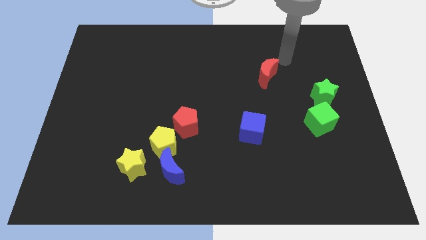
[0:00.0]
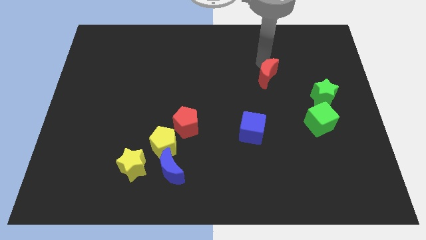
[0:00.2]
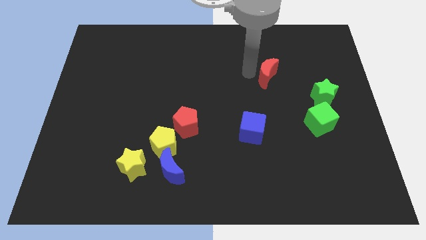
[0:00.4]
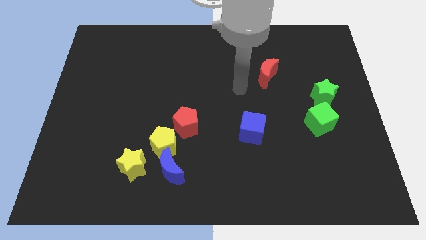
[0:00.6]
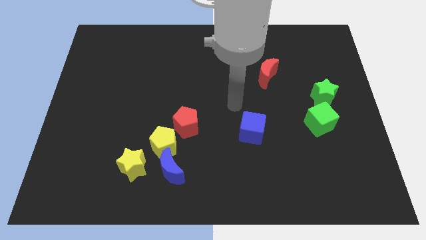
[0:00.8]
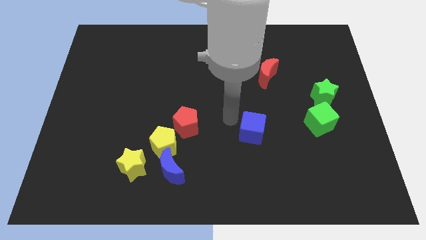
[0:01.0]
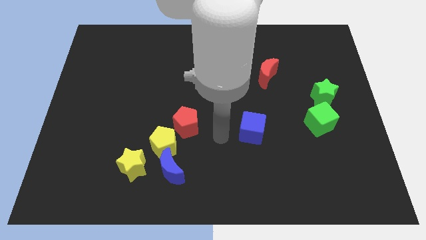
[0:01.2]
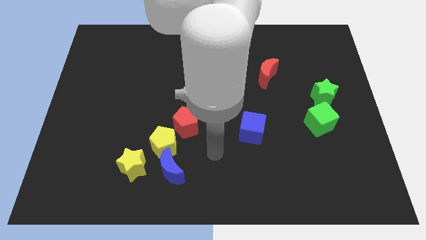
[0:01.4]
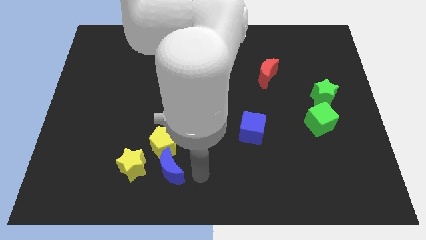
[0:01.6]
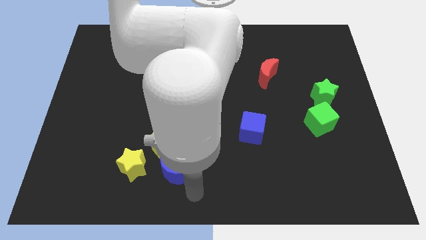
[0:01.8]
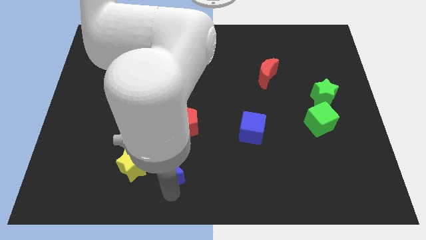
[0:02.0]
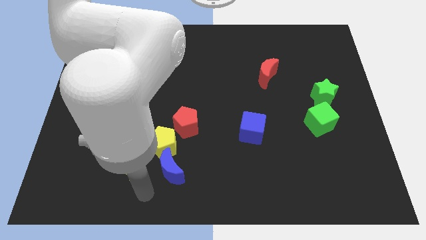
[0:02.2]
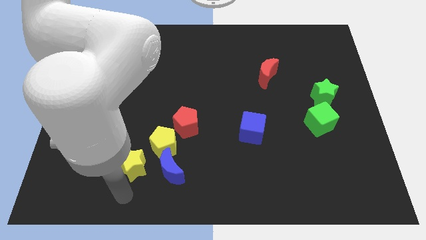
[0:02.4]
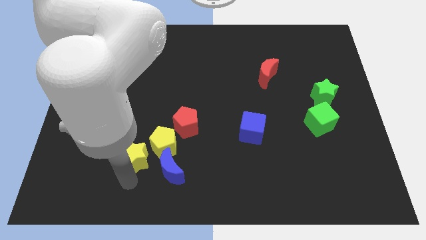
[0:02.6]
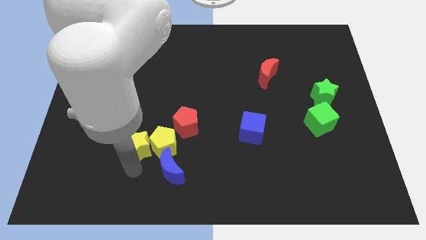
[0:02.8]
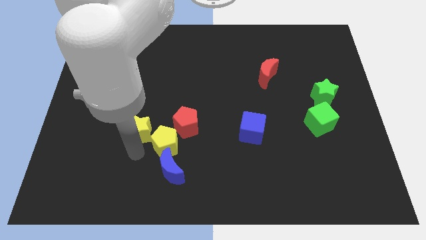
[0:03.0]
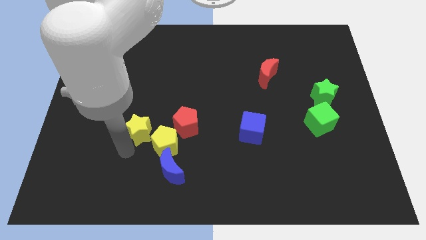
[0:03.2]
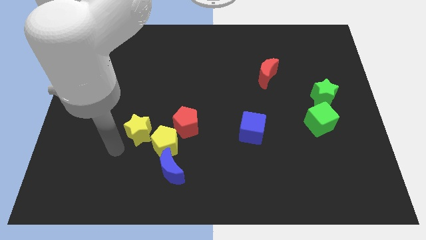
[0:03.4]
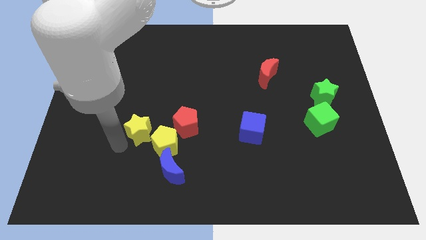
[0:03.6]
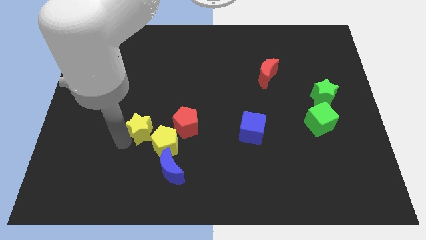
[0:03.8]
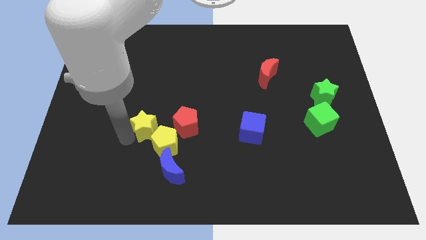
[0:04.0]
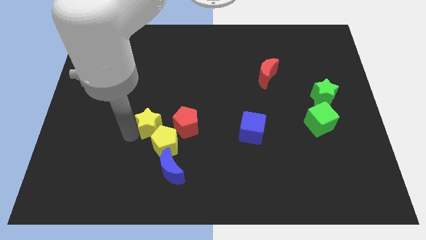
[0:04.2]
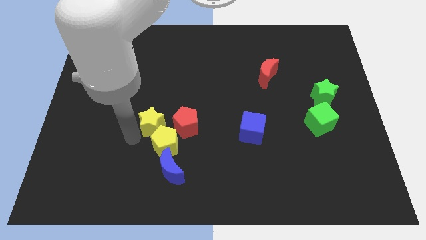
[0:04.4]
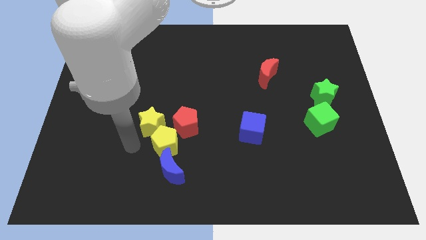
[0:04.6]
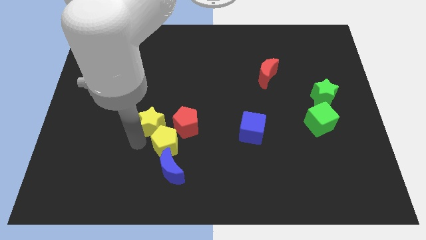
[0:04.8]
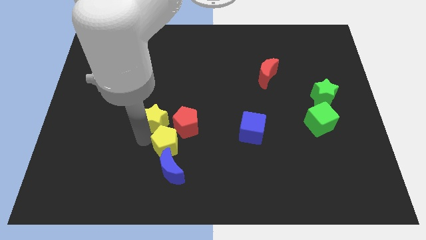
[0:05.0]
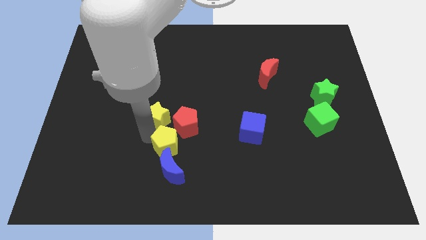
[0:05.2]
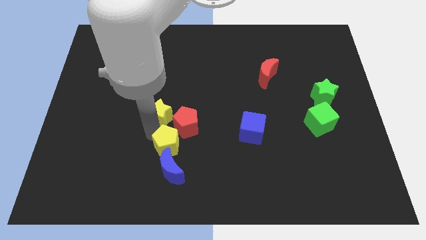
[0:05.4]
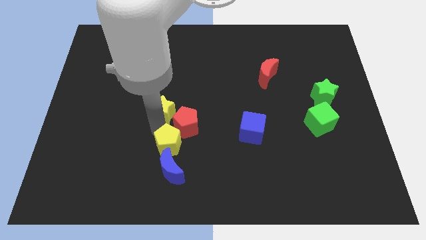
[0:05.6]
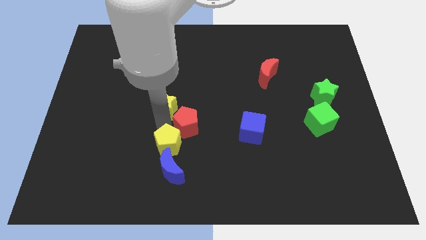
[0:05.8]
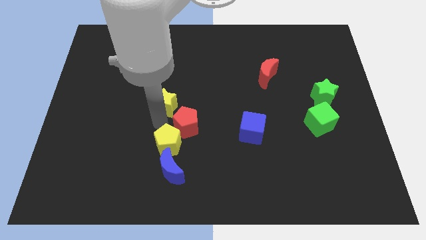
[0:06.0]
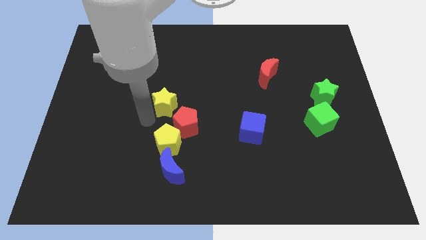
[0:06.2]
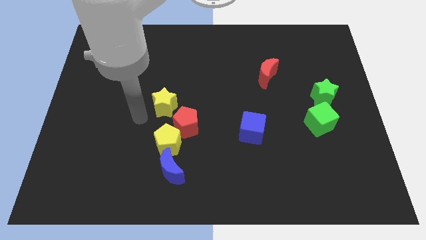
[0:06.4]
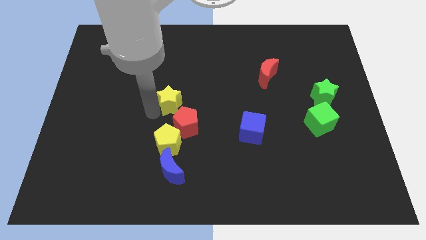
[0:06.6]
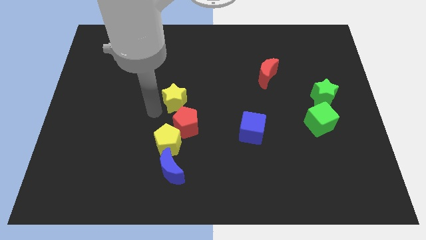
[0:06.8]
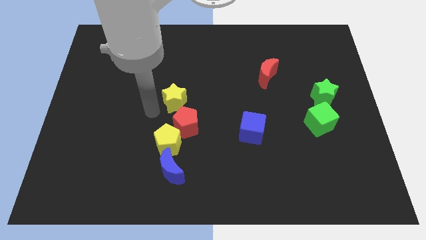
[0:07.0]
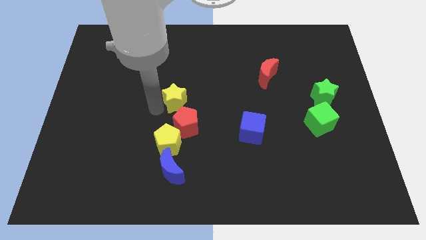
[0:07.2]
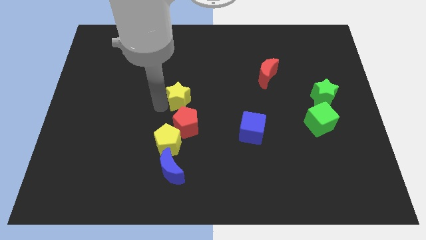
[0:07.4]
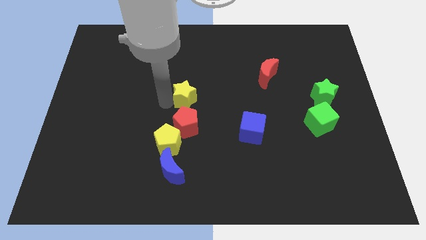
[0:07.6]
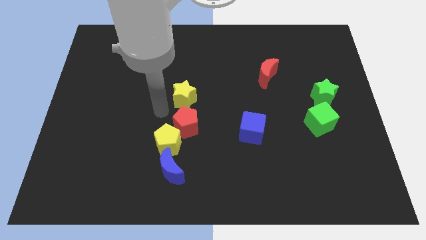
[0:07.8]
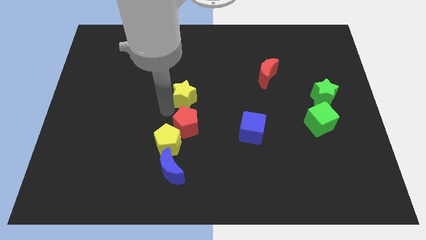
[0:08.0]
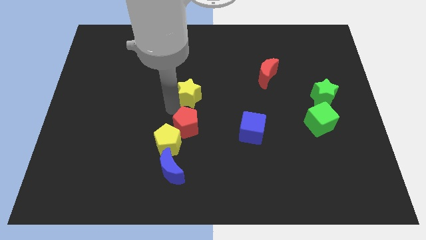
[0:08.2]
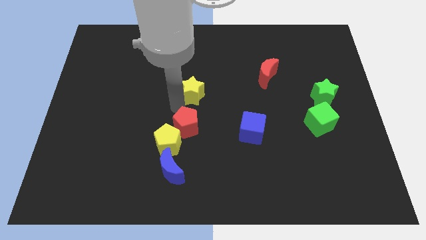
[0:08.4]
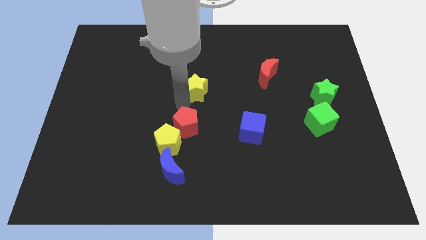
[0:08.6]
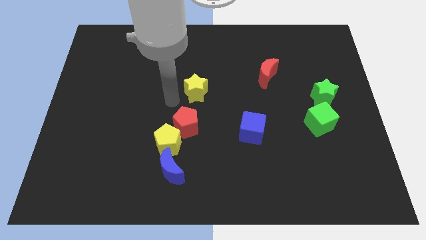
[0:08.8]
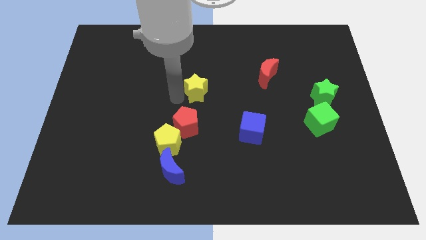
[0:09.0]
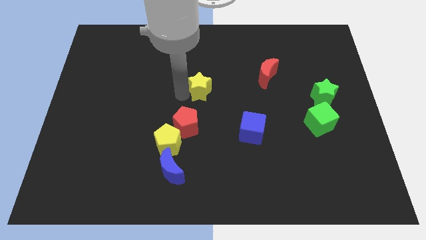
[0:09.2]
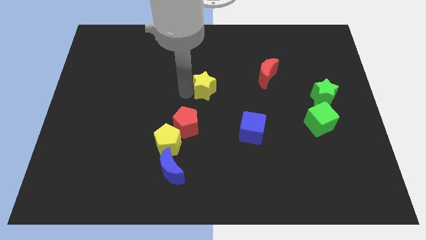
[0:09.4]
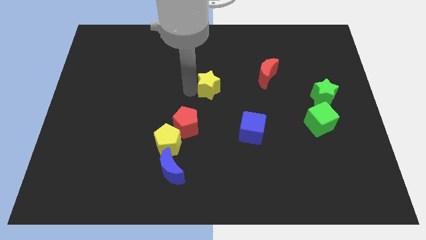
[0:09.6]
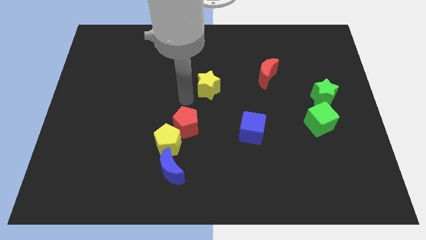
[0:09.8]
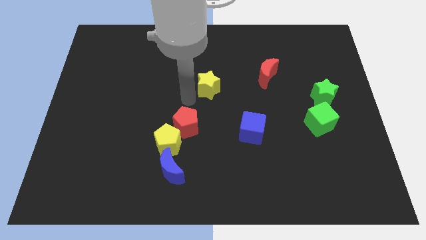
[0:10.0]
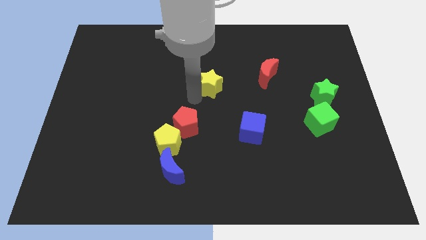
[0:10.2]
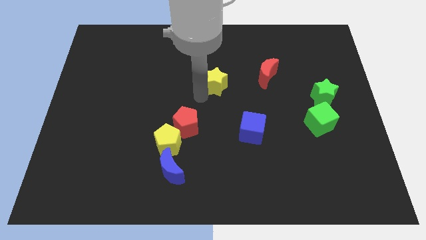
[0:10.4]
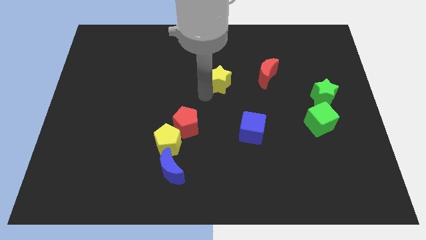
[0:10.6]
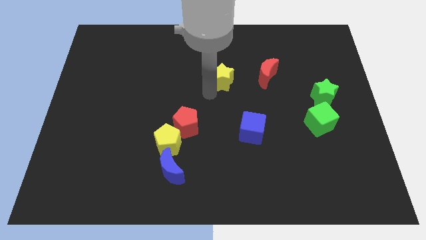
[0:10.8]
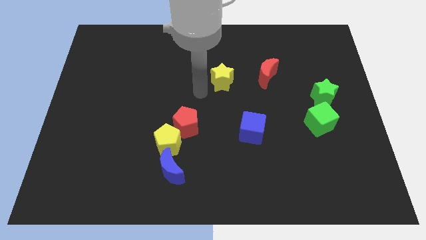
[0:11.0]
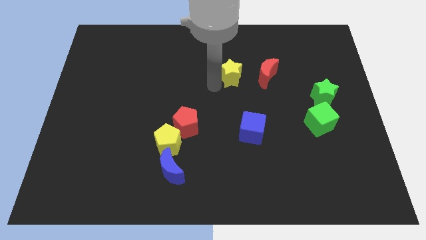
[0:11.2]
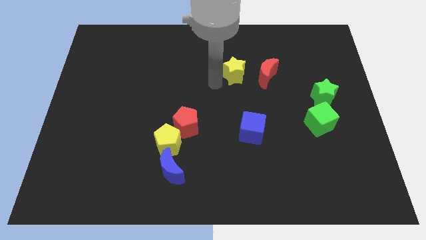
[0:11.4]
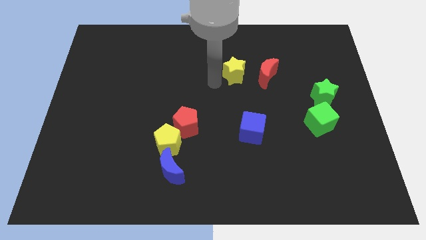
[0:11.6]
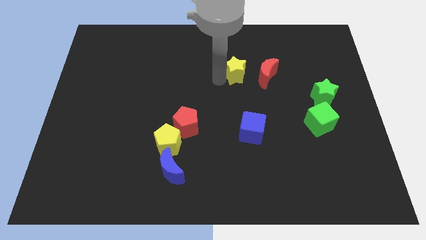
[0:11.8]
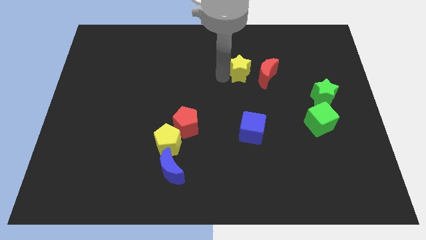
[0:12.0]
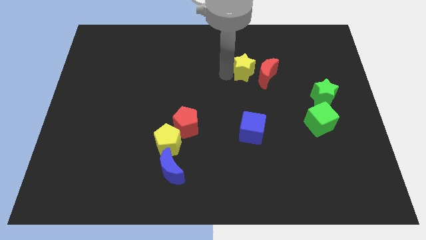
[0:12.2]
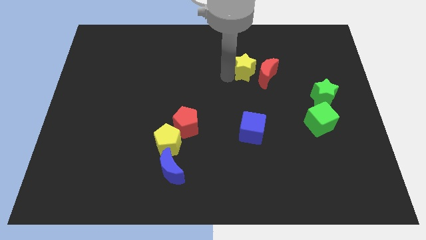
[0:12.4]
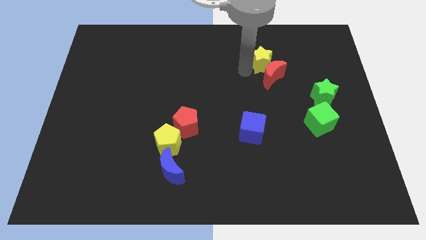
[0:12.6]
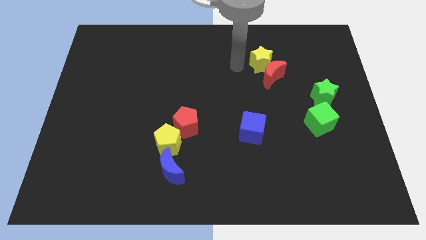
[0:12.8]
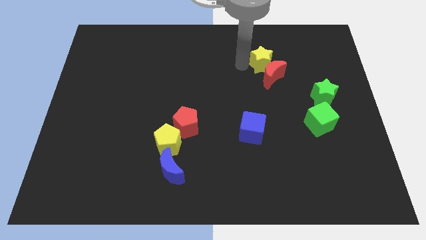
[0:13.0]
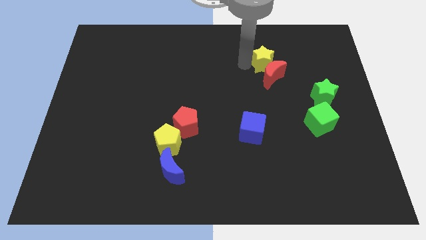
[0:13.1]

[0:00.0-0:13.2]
move the yellow star diagonally up and to the right of the red moon

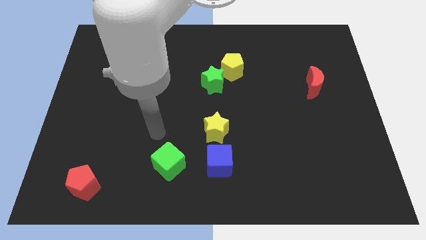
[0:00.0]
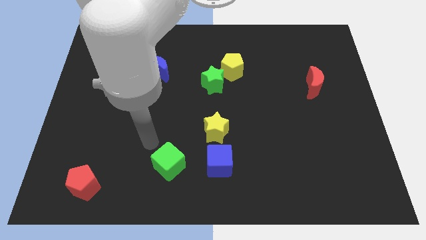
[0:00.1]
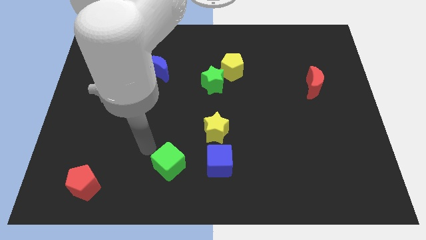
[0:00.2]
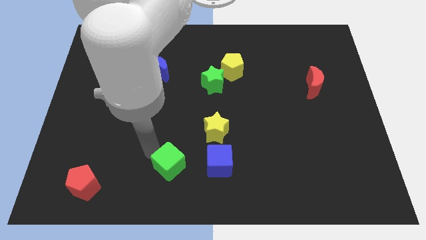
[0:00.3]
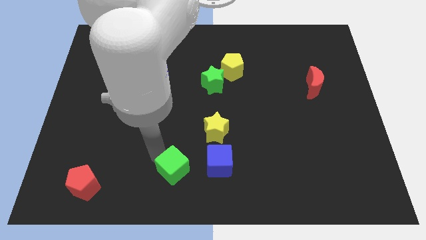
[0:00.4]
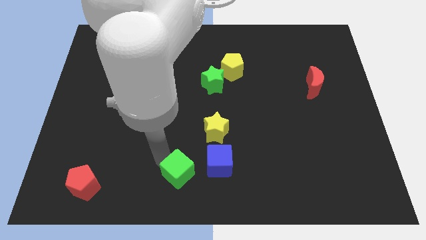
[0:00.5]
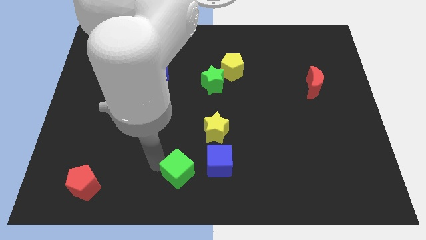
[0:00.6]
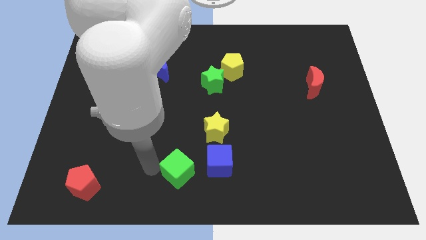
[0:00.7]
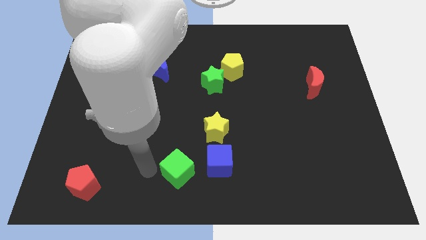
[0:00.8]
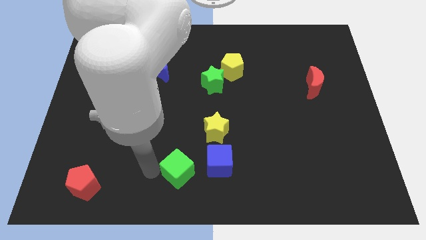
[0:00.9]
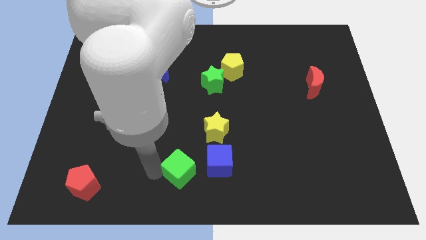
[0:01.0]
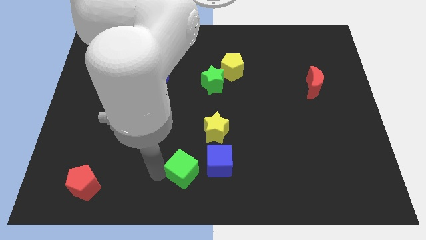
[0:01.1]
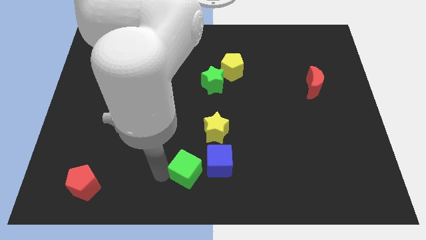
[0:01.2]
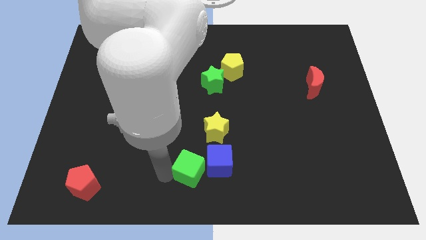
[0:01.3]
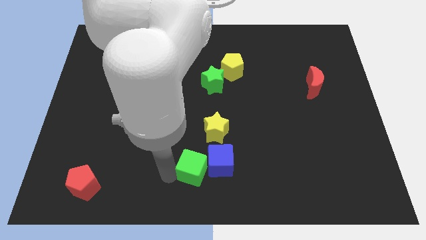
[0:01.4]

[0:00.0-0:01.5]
push the green cube to the bottom side of the yellow star
